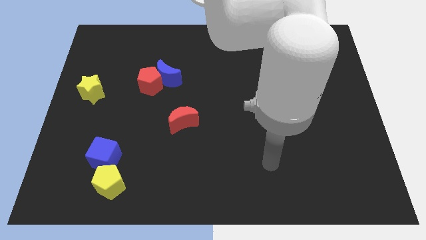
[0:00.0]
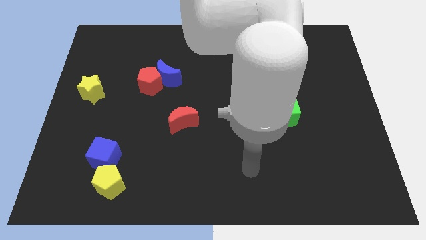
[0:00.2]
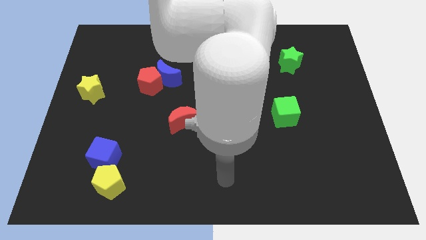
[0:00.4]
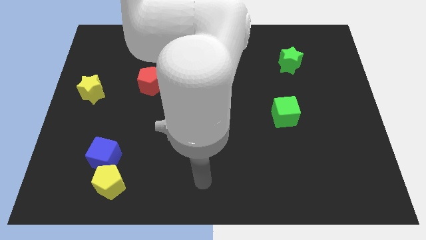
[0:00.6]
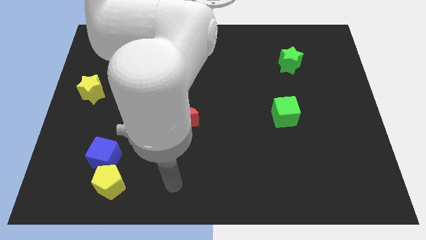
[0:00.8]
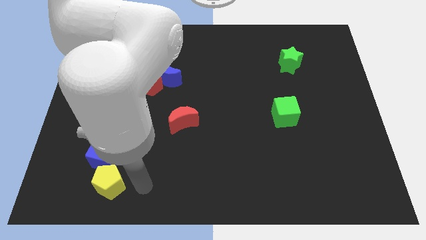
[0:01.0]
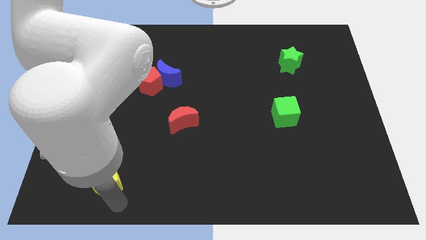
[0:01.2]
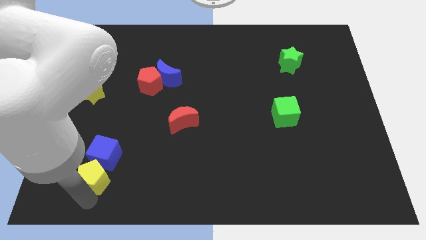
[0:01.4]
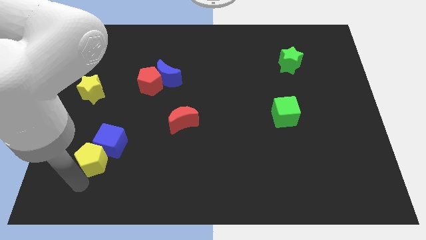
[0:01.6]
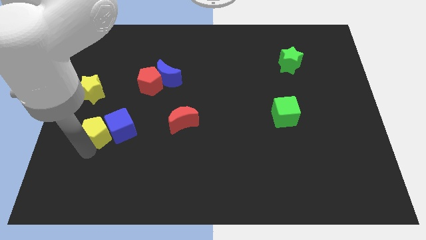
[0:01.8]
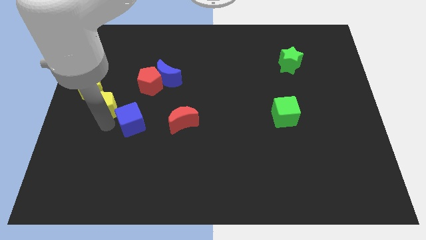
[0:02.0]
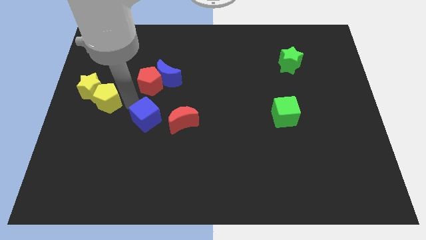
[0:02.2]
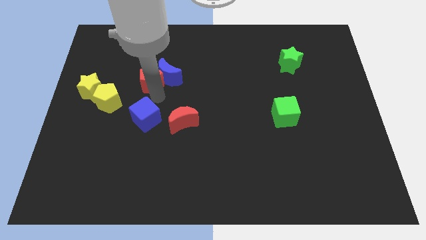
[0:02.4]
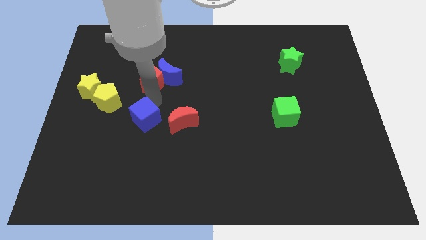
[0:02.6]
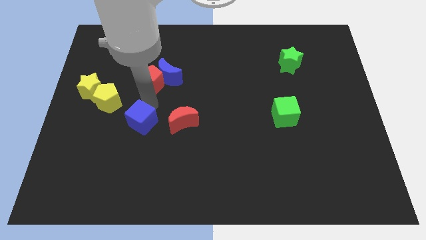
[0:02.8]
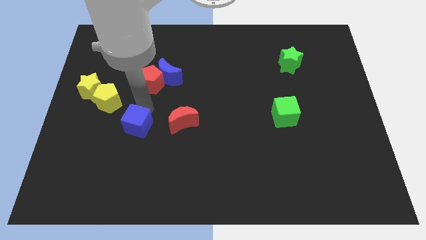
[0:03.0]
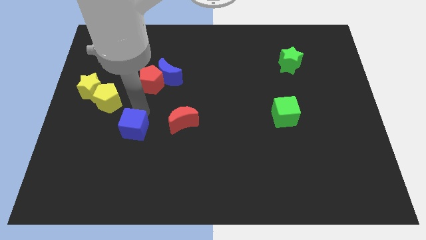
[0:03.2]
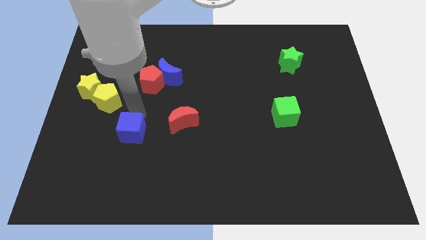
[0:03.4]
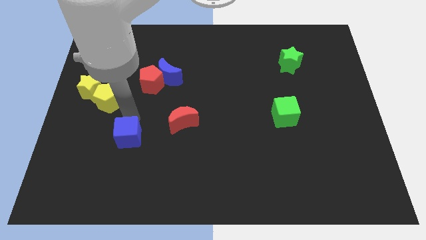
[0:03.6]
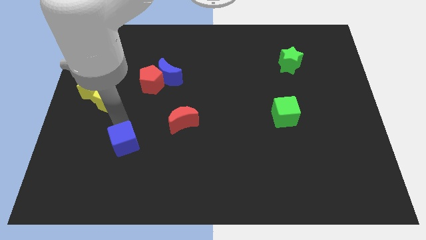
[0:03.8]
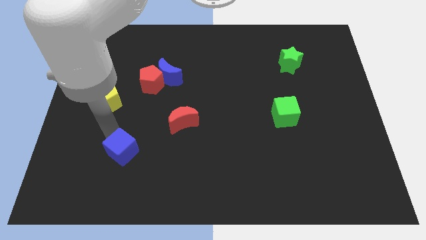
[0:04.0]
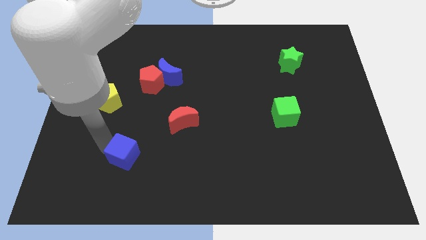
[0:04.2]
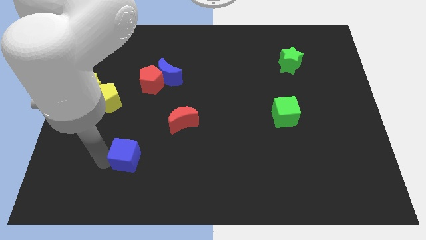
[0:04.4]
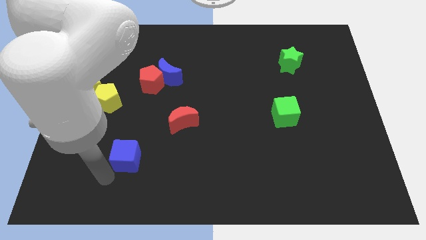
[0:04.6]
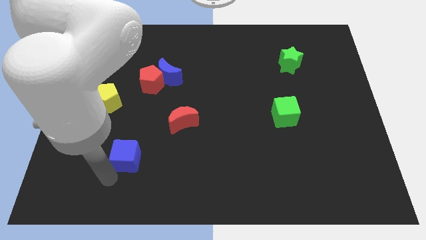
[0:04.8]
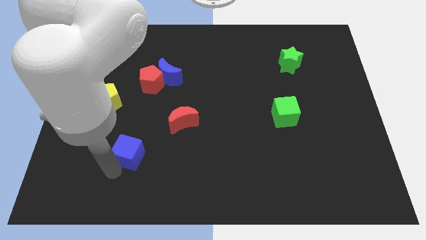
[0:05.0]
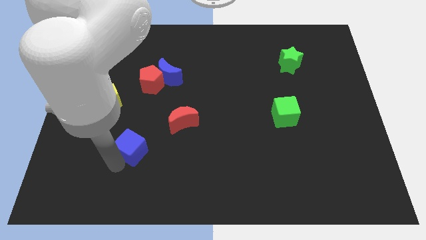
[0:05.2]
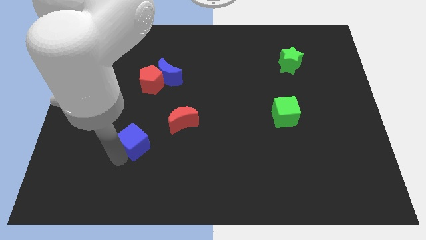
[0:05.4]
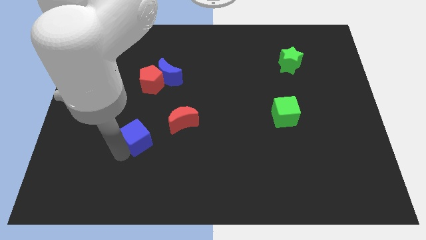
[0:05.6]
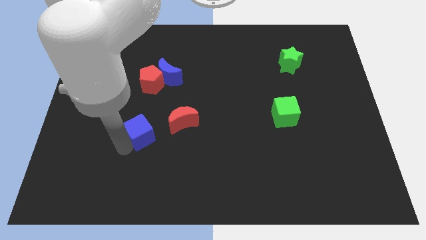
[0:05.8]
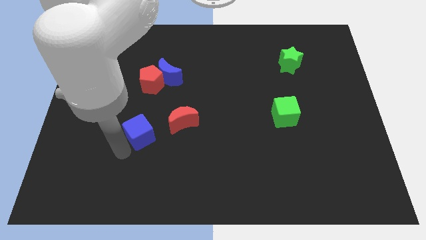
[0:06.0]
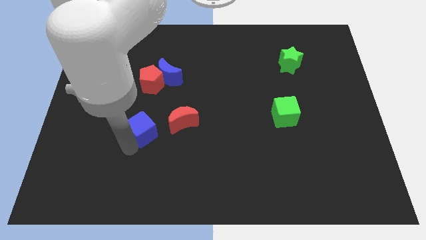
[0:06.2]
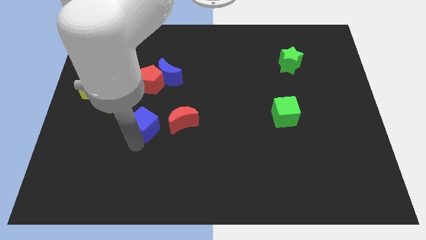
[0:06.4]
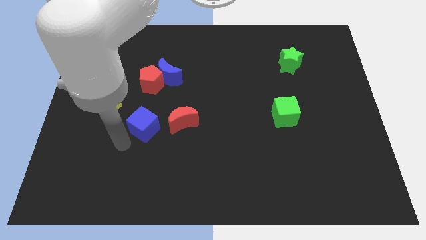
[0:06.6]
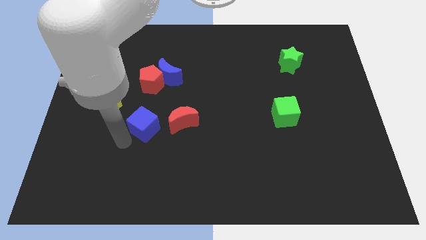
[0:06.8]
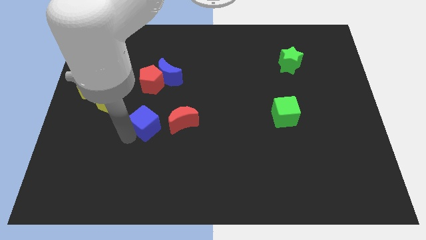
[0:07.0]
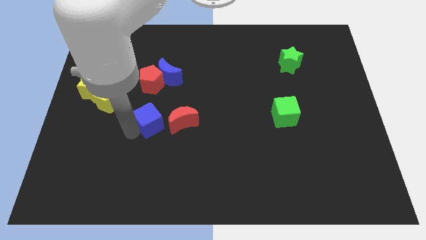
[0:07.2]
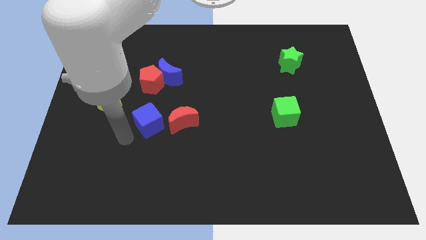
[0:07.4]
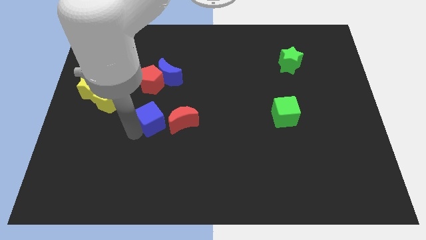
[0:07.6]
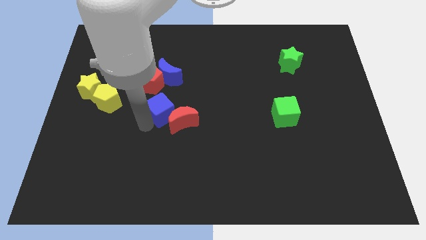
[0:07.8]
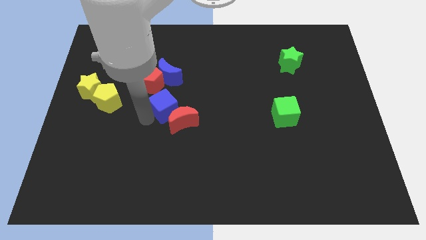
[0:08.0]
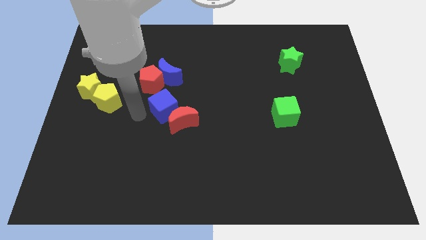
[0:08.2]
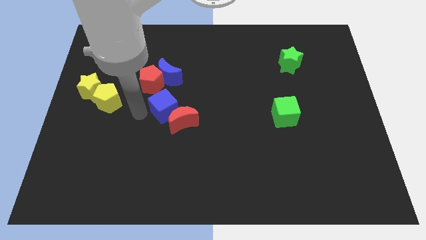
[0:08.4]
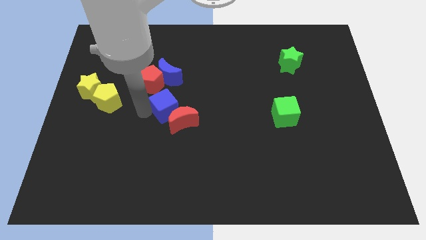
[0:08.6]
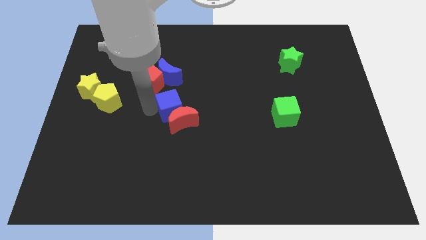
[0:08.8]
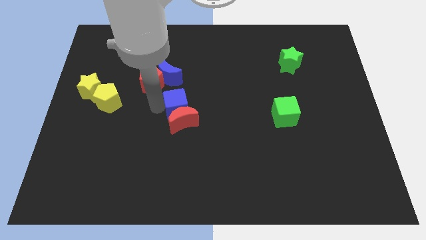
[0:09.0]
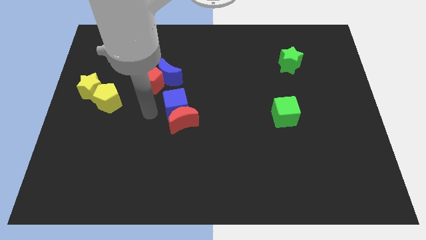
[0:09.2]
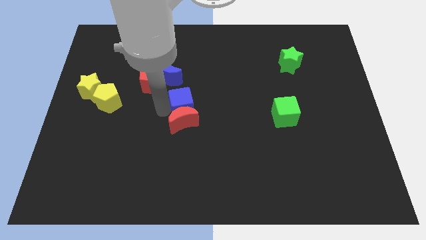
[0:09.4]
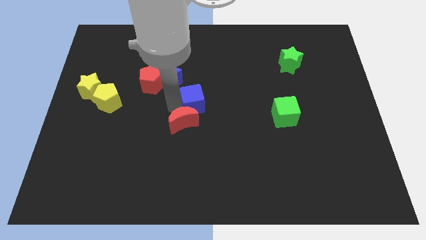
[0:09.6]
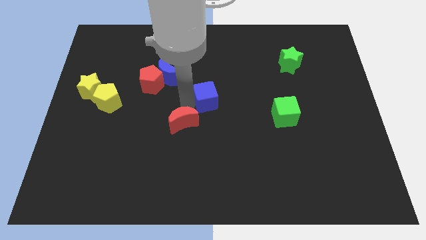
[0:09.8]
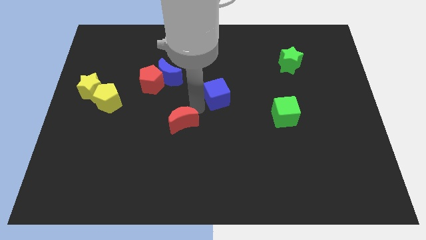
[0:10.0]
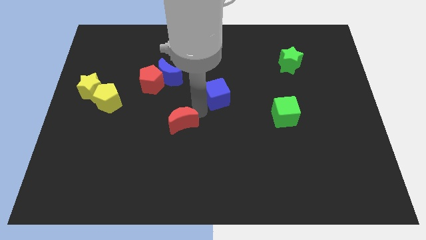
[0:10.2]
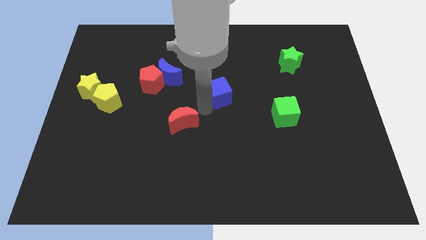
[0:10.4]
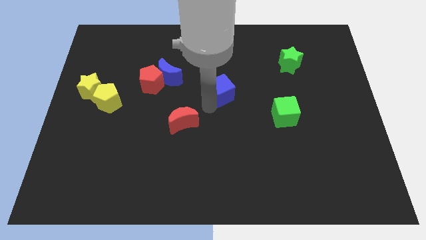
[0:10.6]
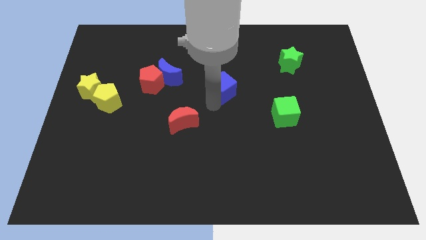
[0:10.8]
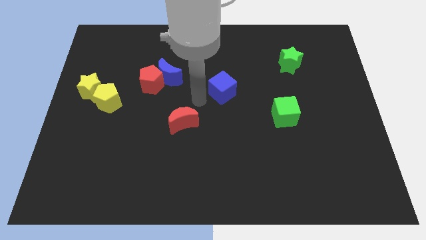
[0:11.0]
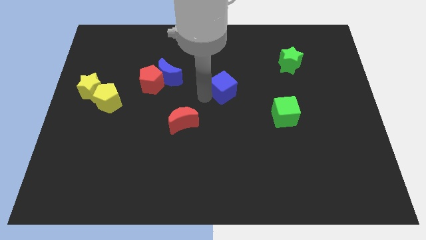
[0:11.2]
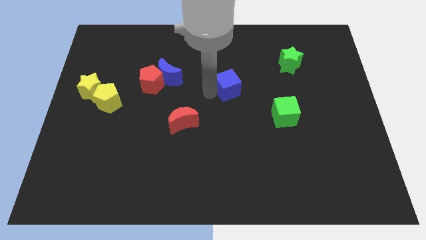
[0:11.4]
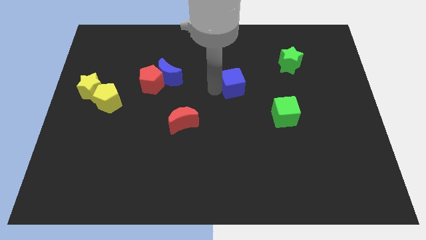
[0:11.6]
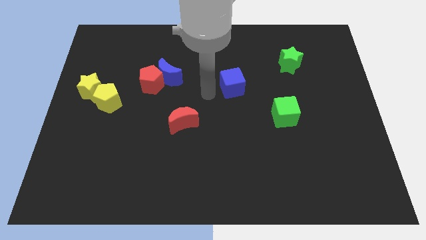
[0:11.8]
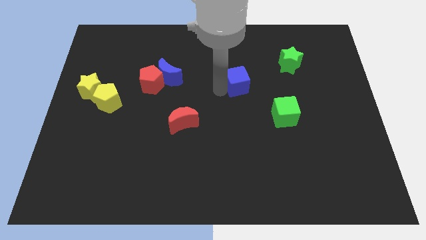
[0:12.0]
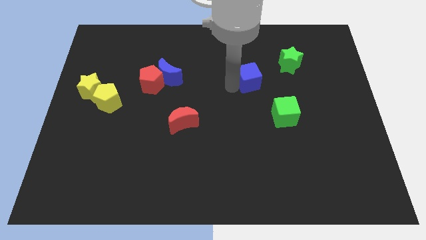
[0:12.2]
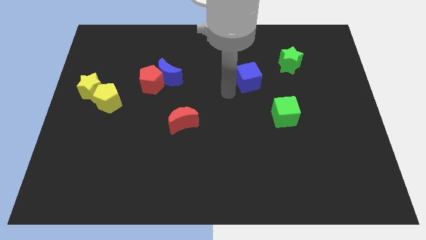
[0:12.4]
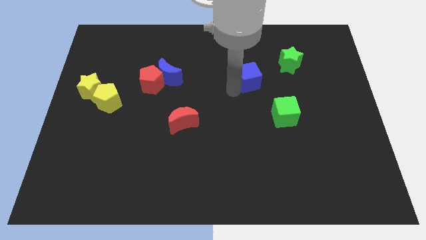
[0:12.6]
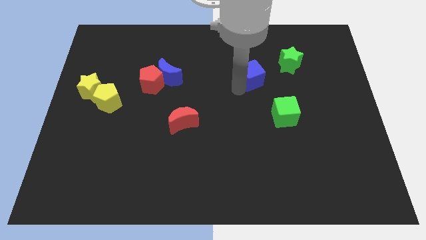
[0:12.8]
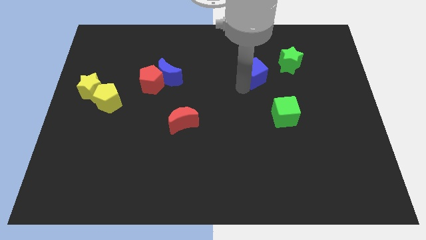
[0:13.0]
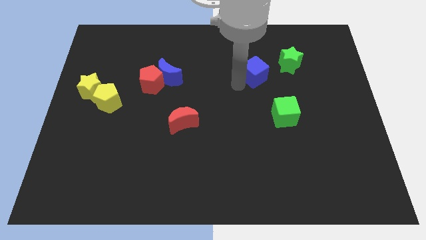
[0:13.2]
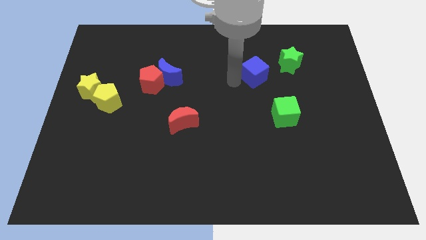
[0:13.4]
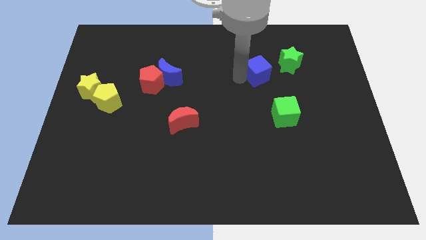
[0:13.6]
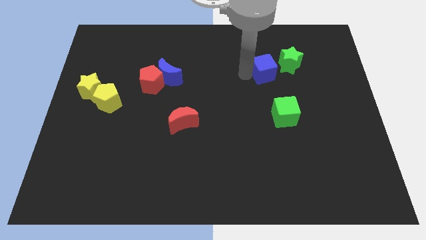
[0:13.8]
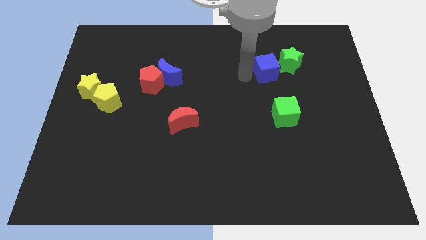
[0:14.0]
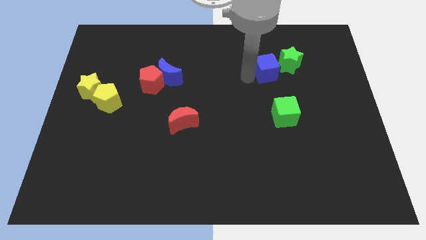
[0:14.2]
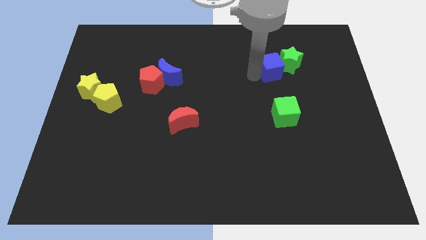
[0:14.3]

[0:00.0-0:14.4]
slide the blue cube close to the green star
